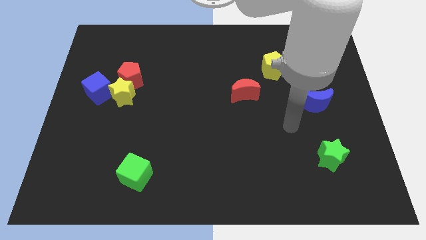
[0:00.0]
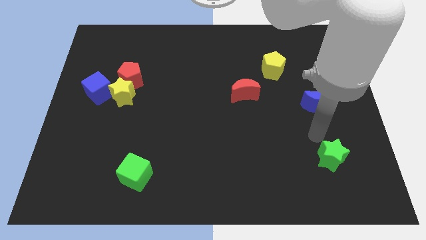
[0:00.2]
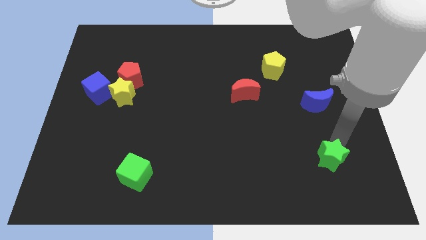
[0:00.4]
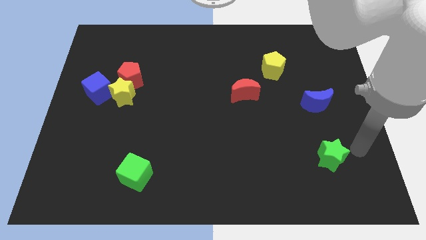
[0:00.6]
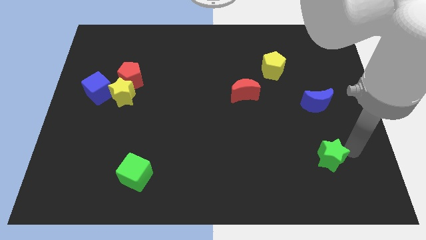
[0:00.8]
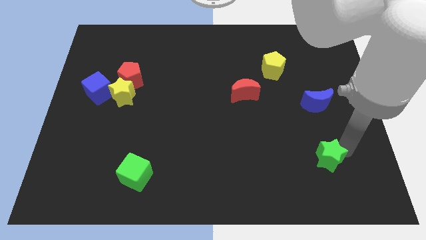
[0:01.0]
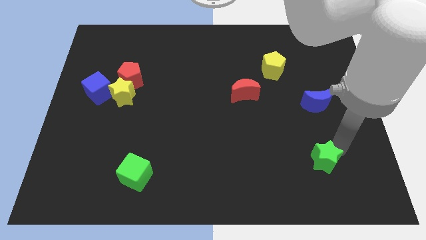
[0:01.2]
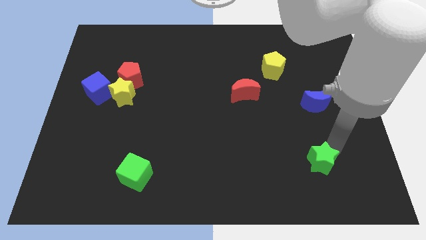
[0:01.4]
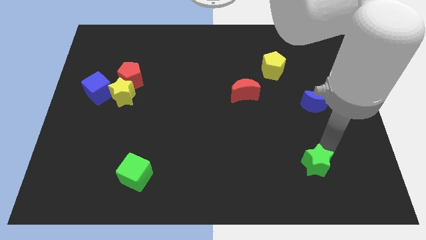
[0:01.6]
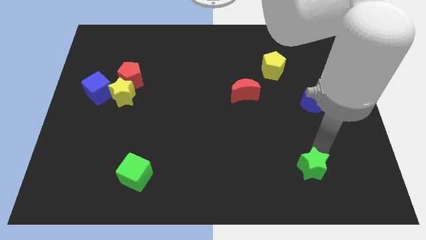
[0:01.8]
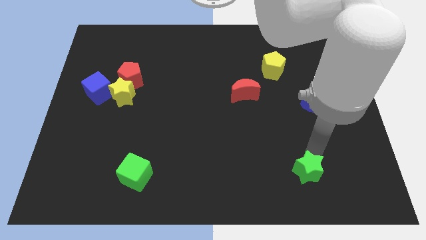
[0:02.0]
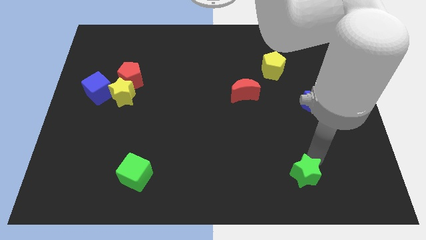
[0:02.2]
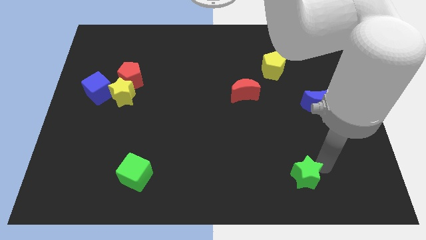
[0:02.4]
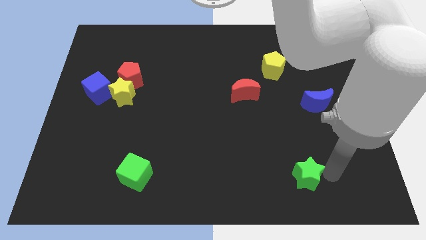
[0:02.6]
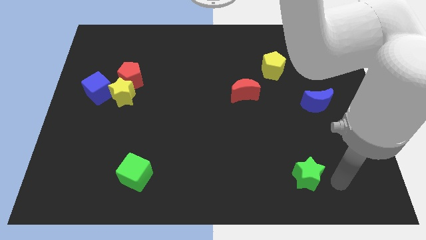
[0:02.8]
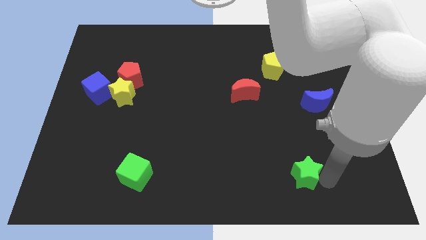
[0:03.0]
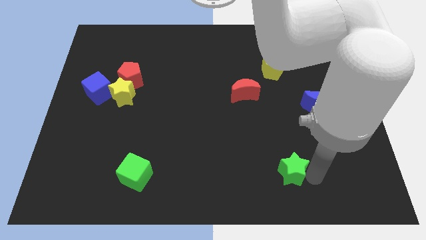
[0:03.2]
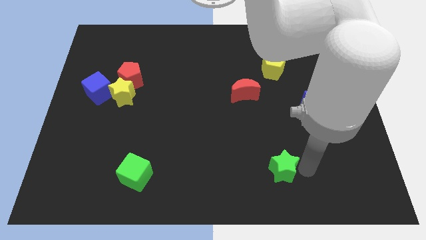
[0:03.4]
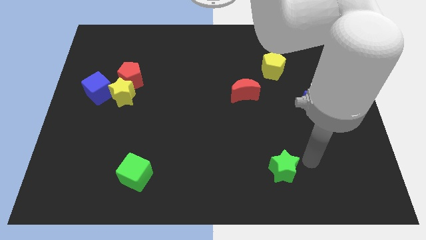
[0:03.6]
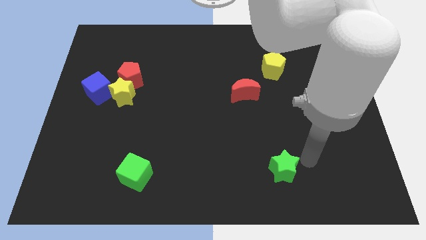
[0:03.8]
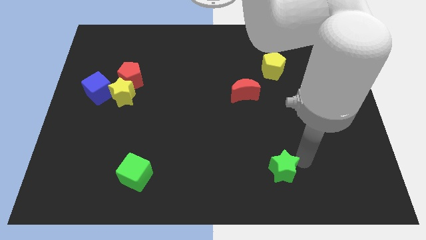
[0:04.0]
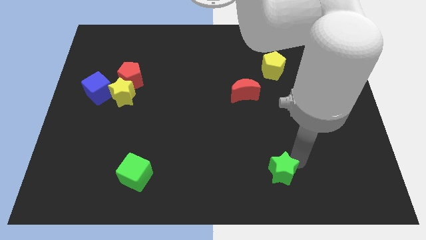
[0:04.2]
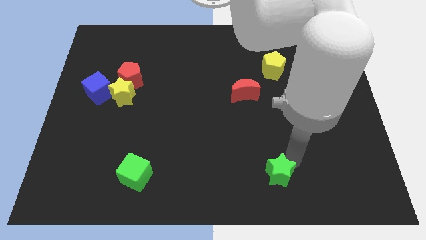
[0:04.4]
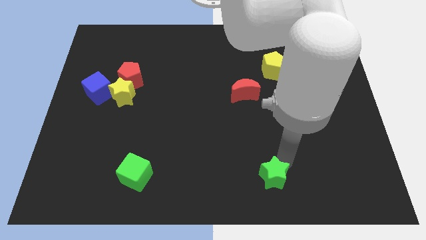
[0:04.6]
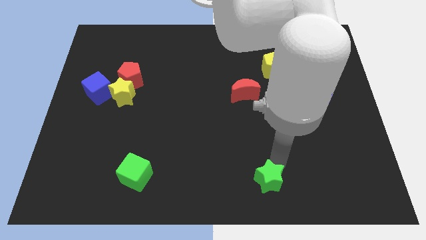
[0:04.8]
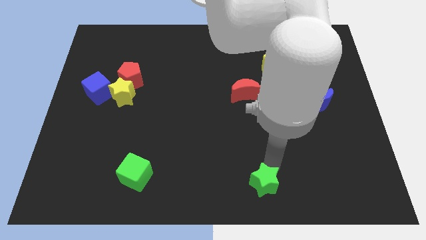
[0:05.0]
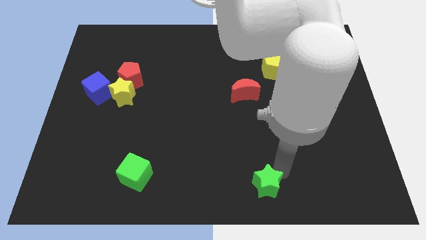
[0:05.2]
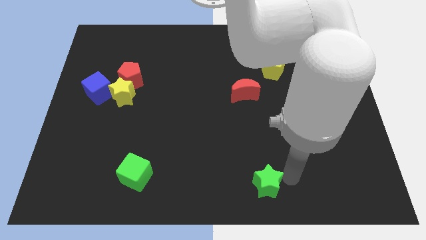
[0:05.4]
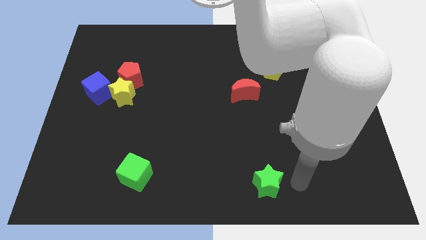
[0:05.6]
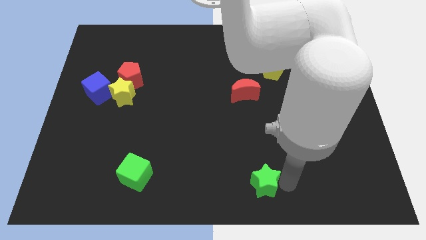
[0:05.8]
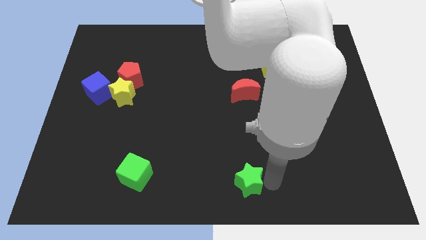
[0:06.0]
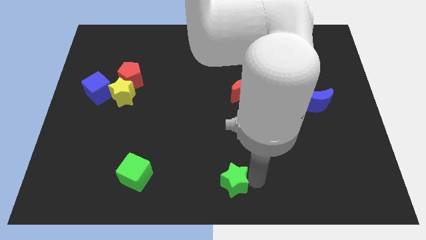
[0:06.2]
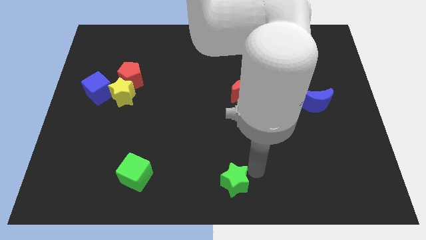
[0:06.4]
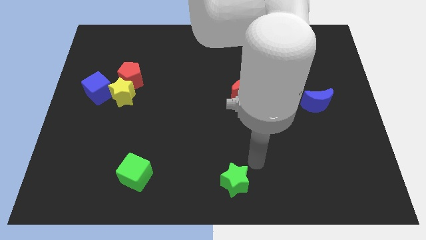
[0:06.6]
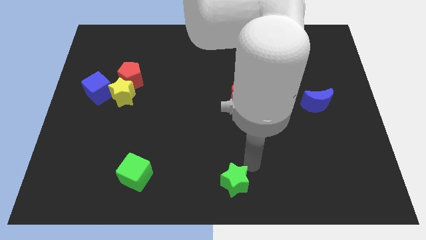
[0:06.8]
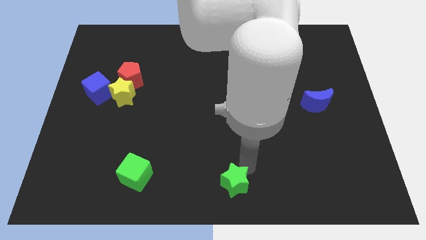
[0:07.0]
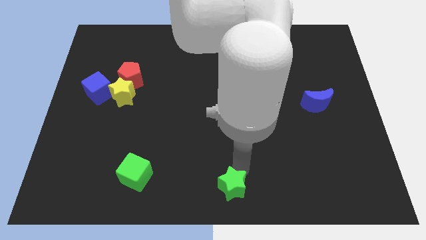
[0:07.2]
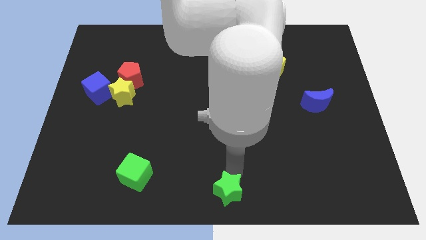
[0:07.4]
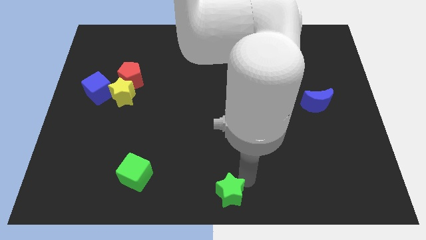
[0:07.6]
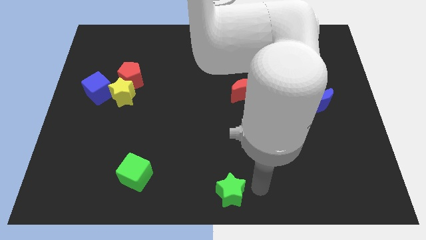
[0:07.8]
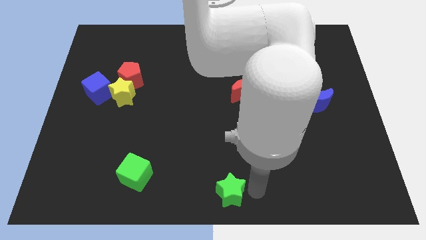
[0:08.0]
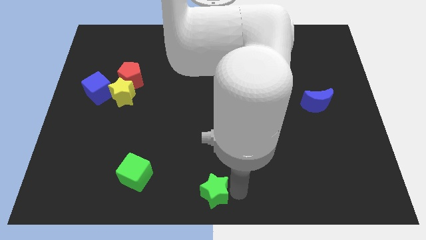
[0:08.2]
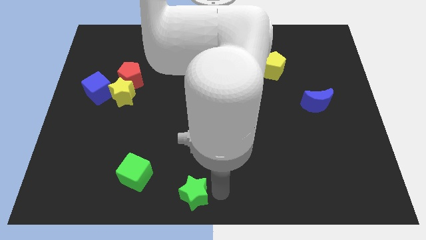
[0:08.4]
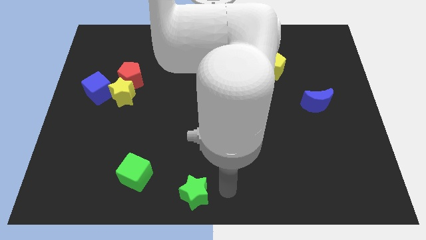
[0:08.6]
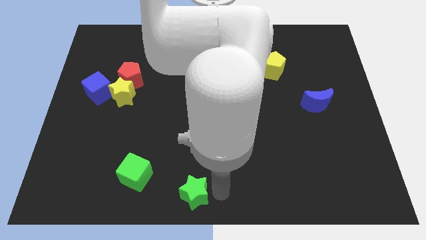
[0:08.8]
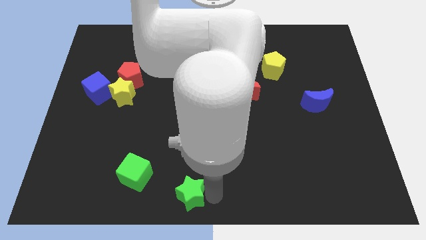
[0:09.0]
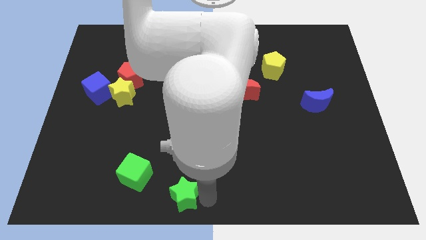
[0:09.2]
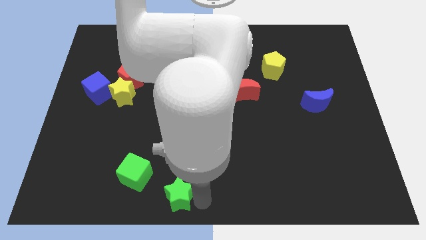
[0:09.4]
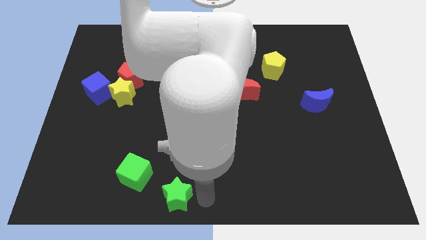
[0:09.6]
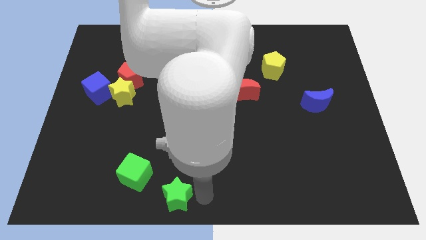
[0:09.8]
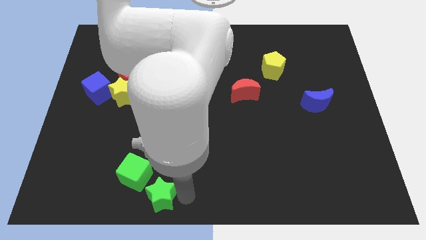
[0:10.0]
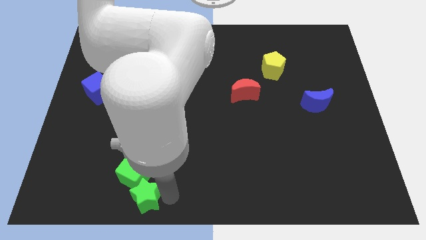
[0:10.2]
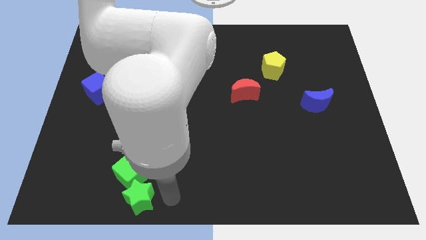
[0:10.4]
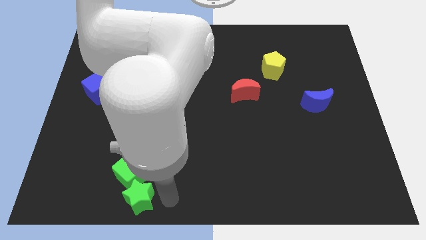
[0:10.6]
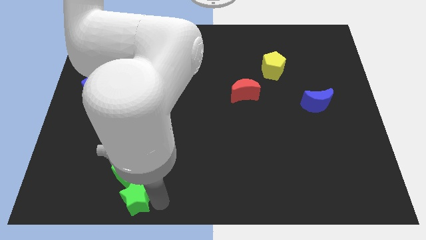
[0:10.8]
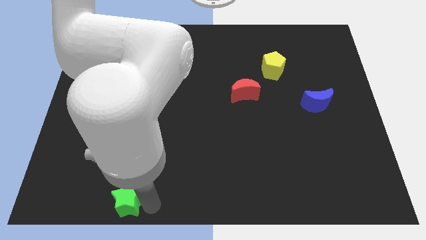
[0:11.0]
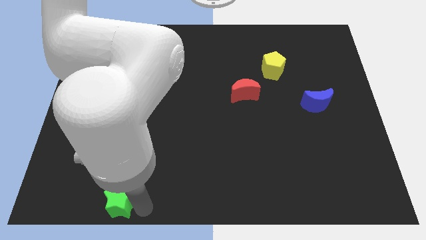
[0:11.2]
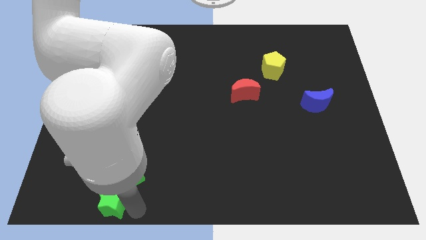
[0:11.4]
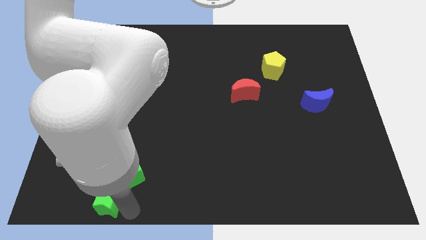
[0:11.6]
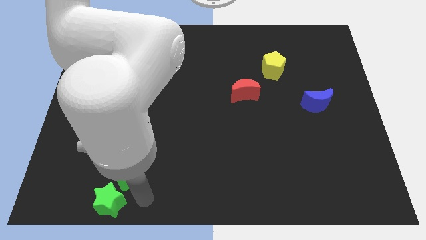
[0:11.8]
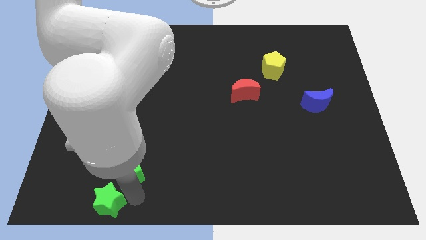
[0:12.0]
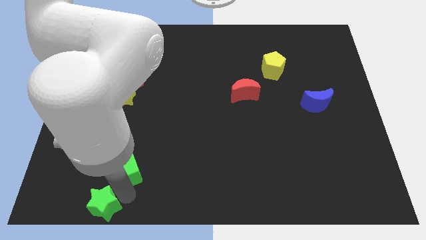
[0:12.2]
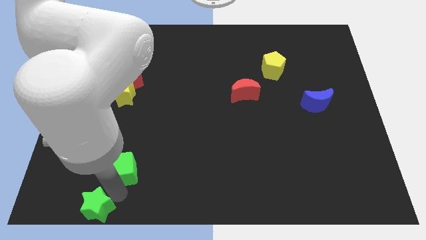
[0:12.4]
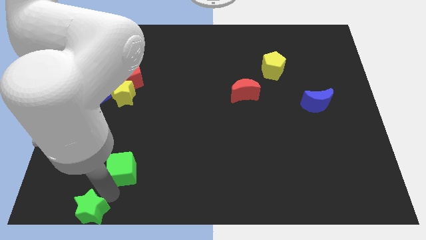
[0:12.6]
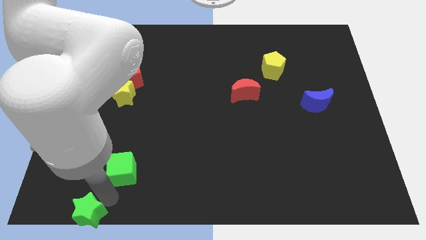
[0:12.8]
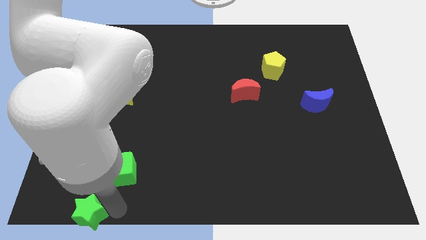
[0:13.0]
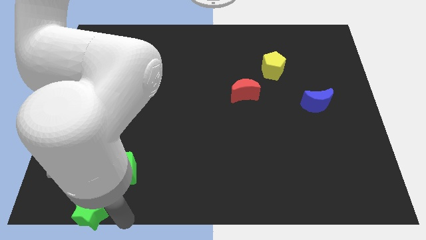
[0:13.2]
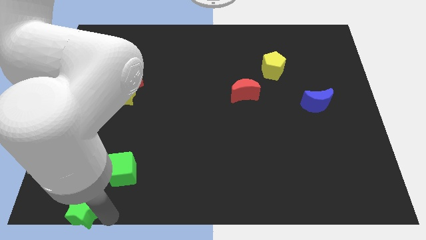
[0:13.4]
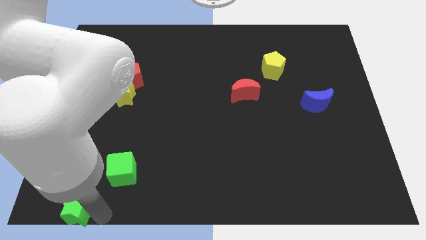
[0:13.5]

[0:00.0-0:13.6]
push the green star to the bottom left corner
